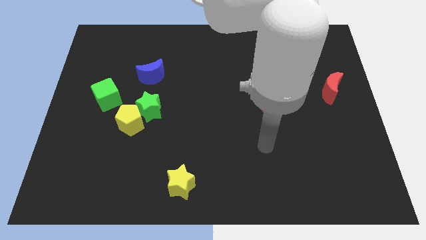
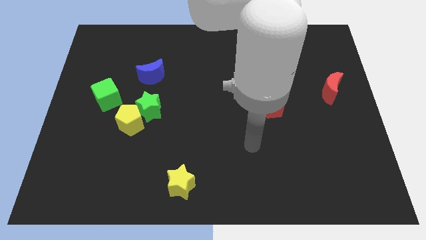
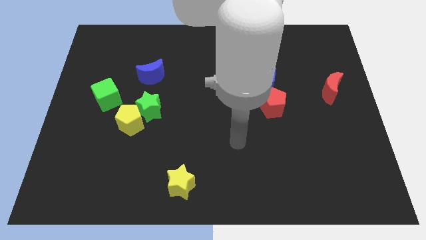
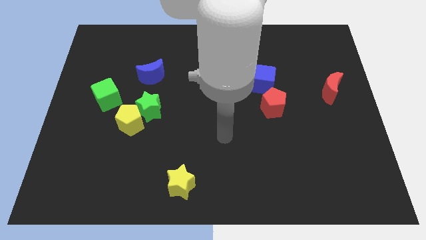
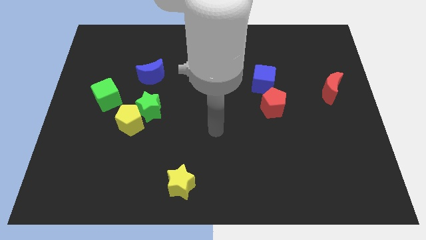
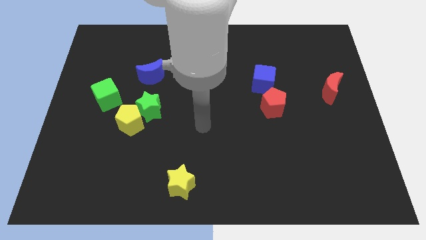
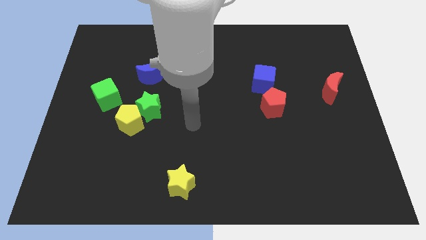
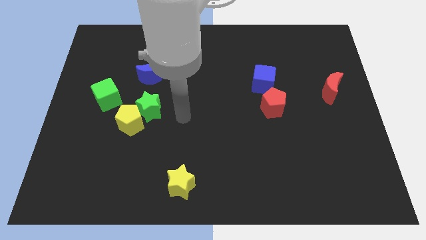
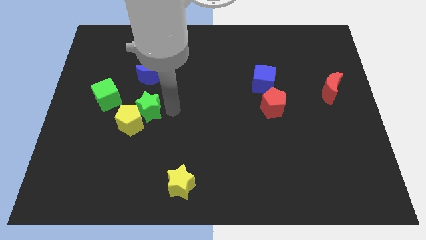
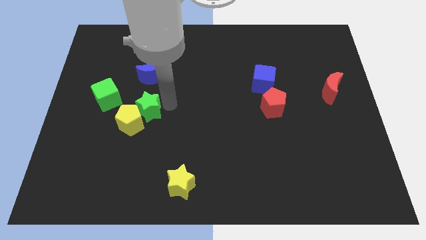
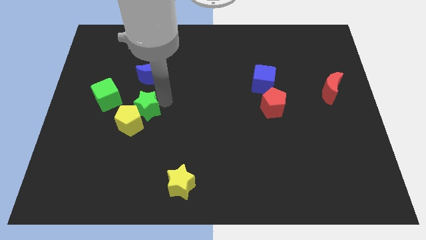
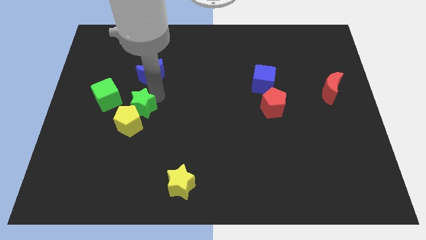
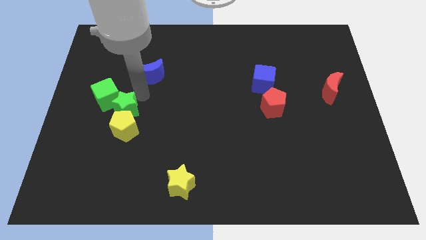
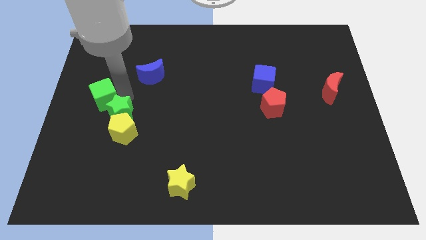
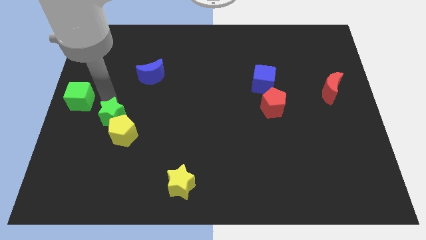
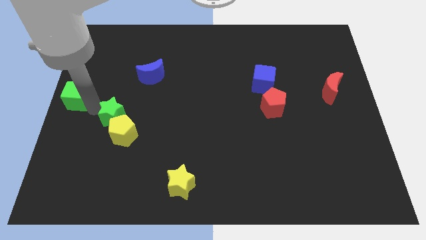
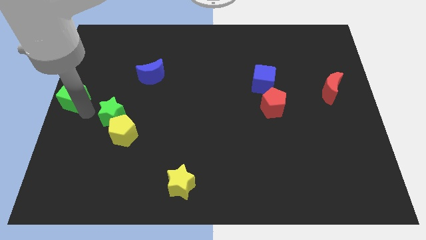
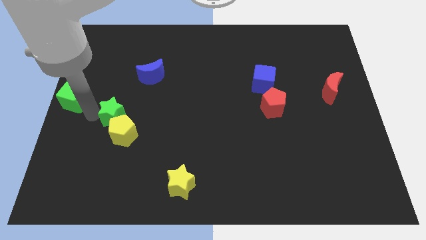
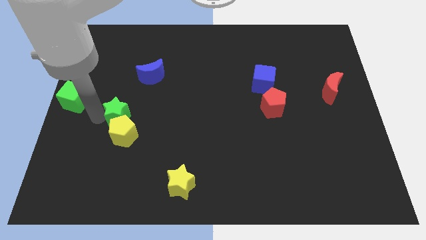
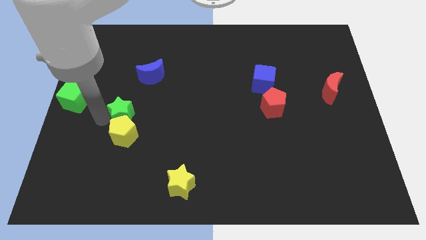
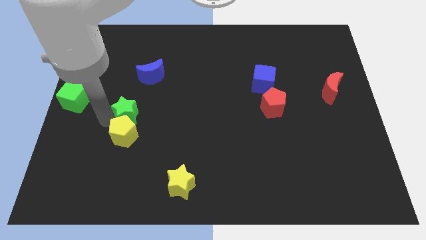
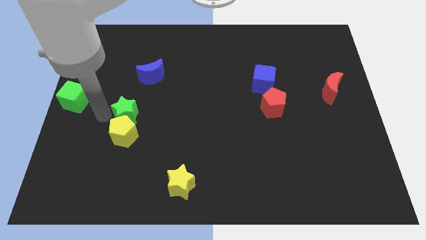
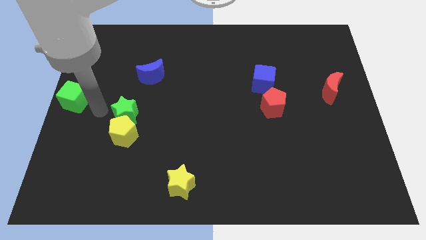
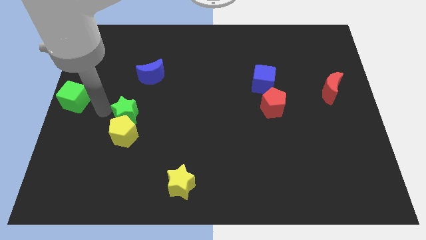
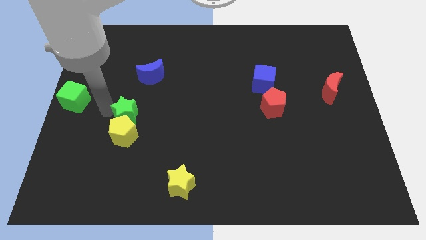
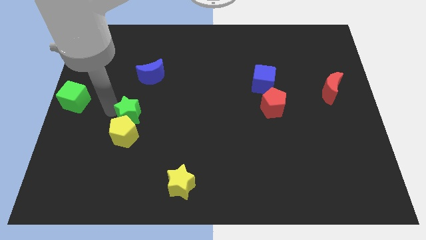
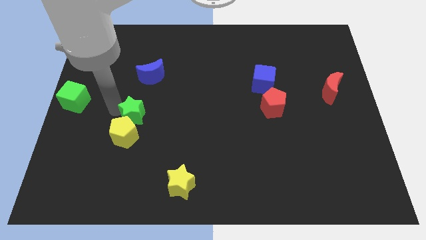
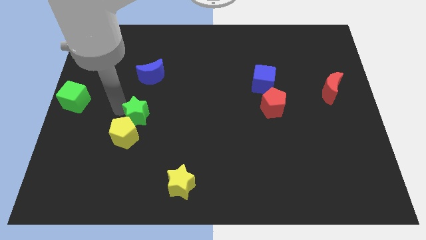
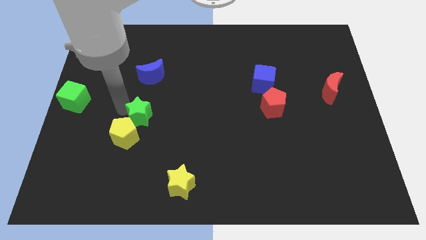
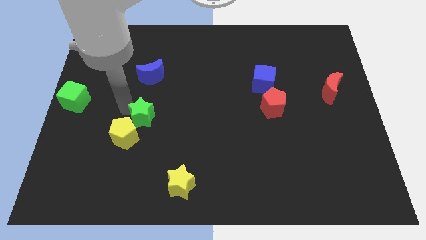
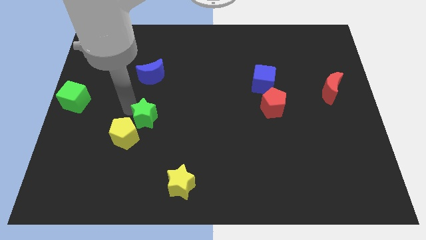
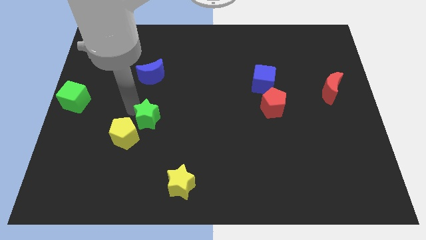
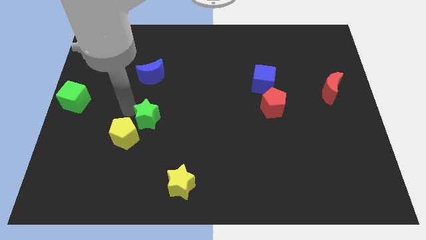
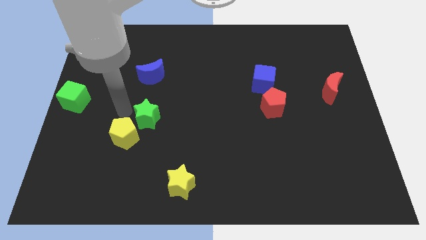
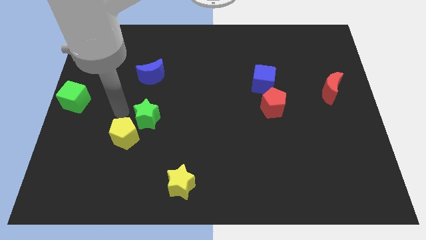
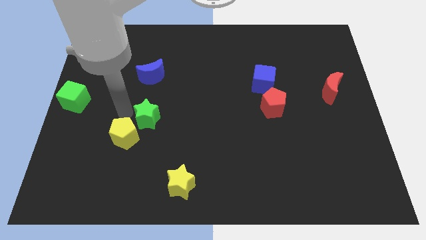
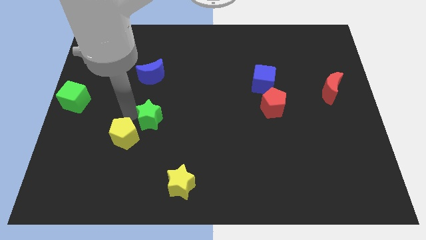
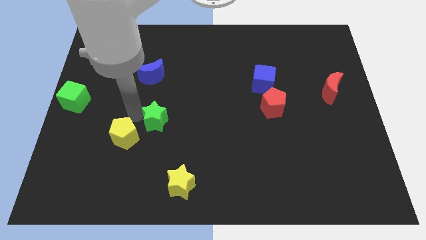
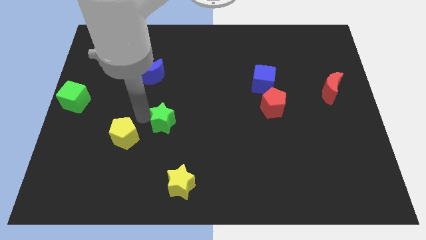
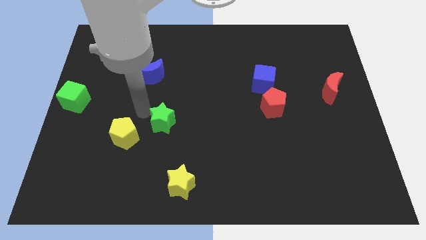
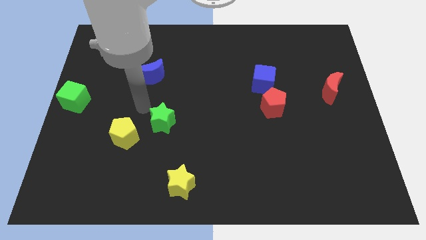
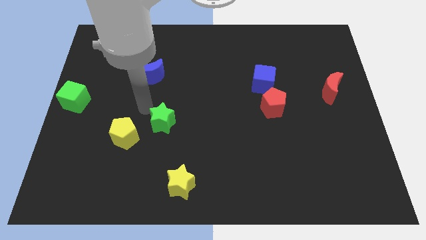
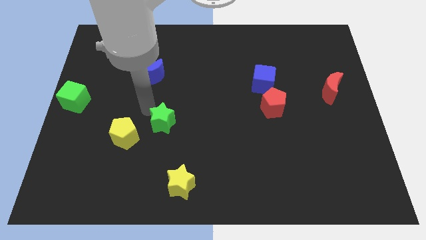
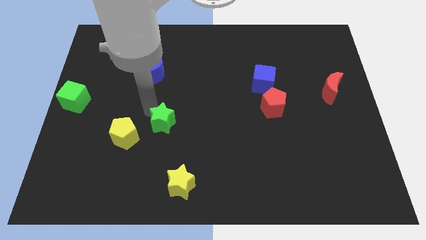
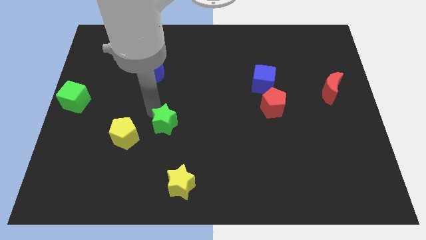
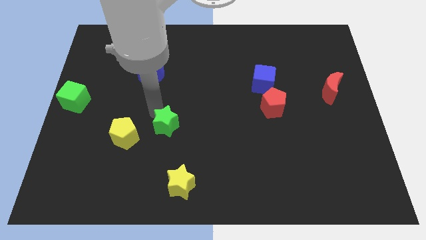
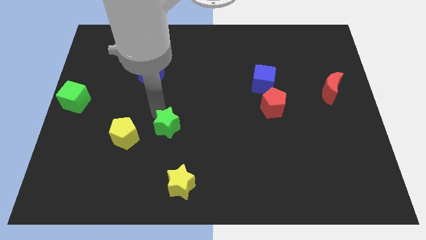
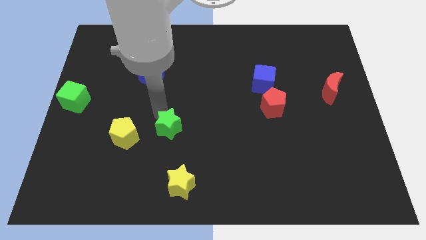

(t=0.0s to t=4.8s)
push the green star a bit downwards and to the right diagonally

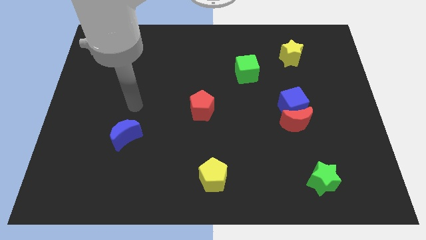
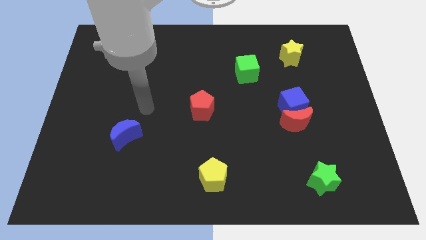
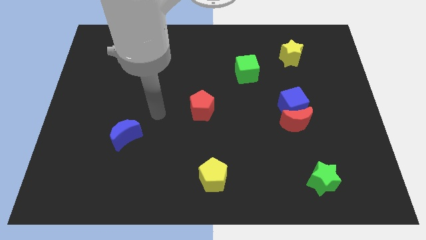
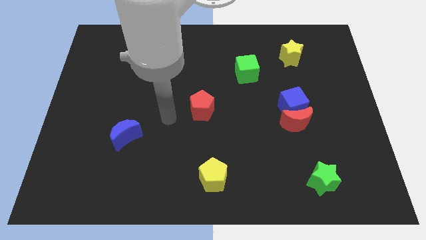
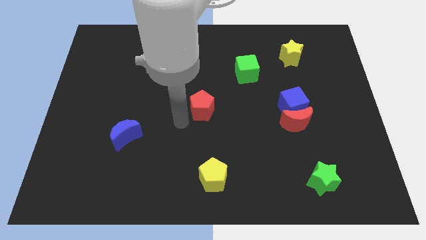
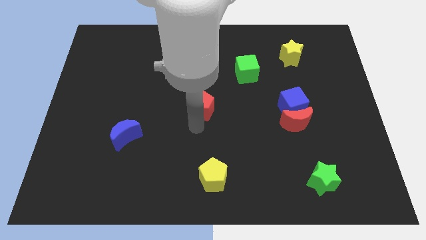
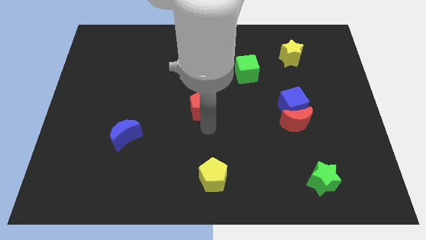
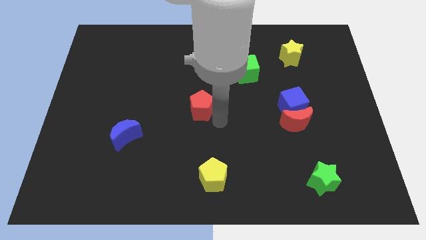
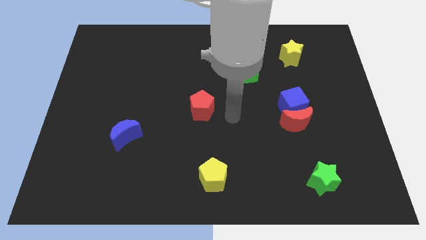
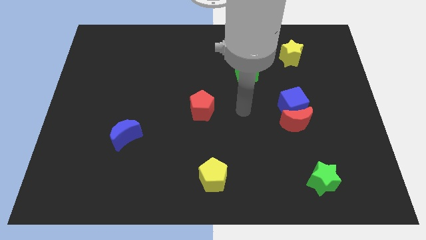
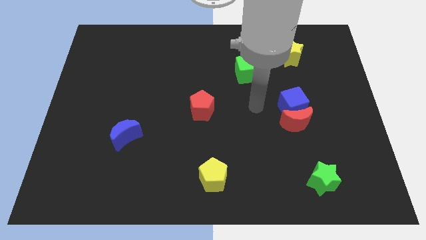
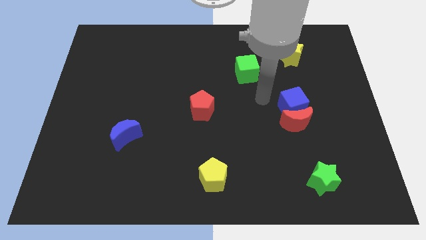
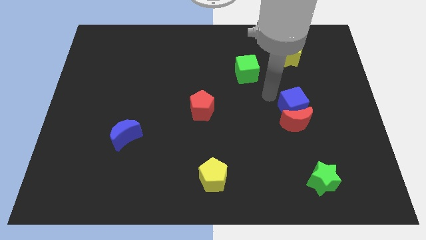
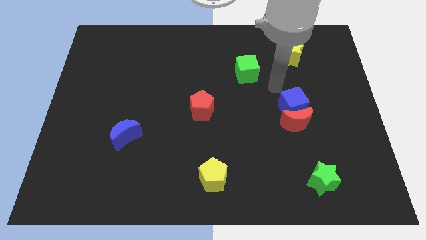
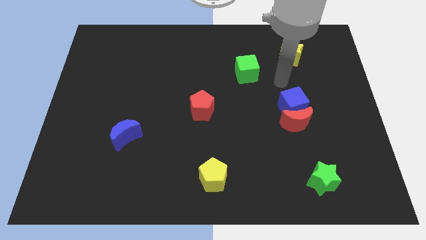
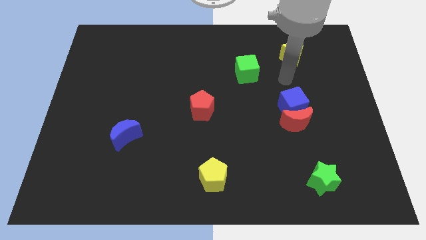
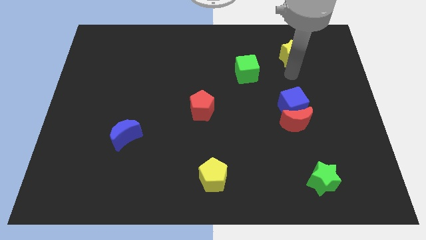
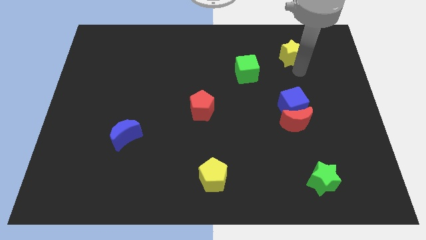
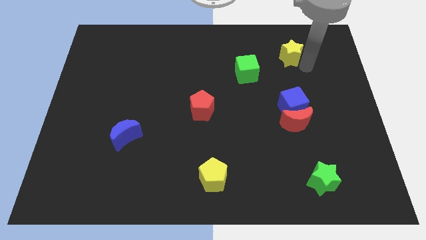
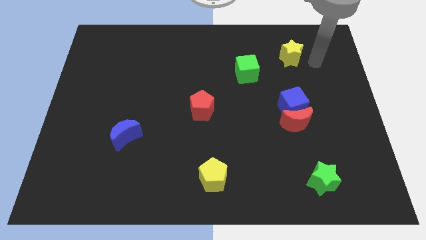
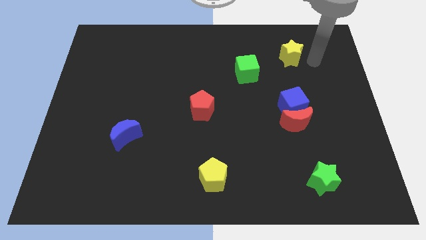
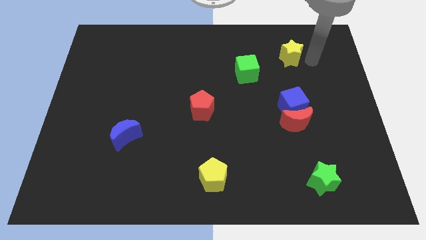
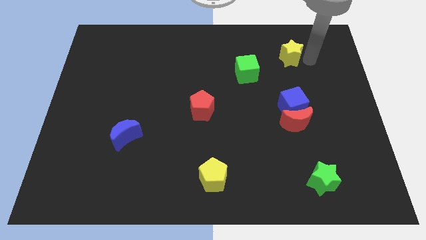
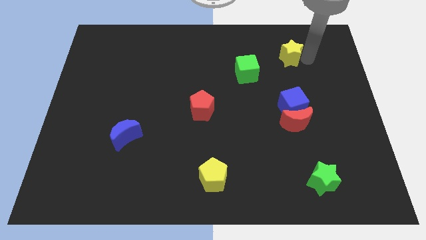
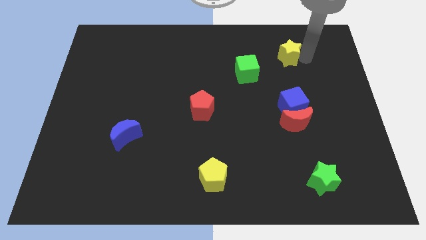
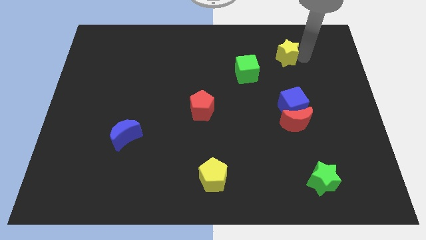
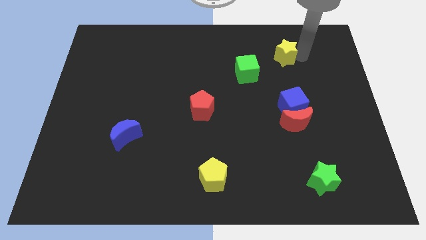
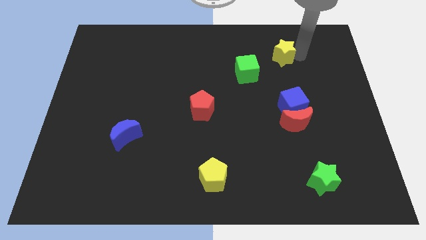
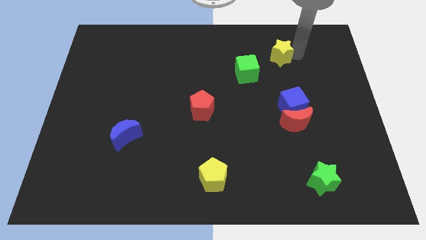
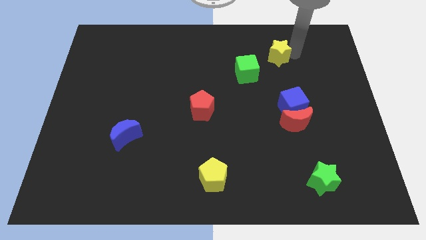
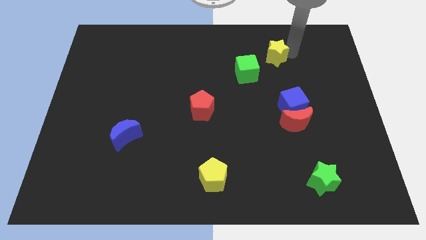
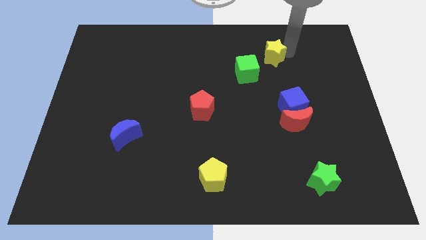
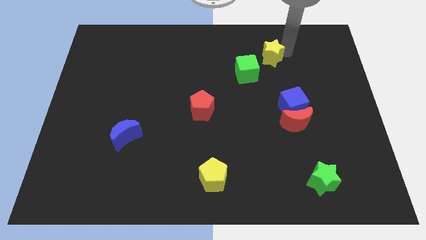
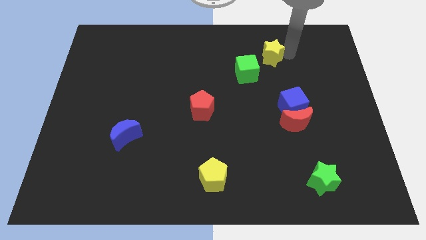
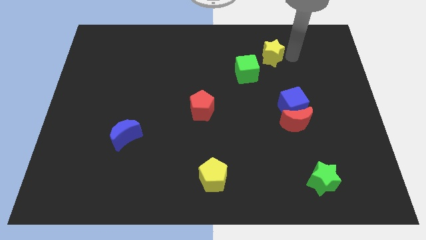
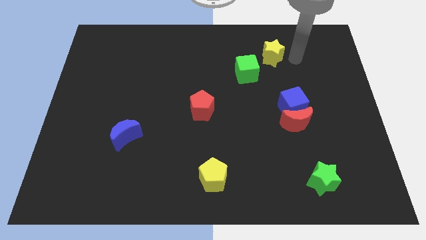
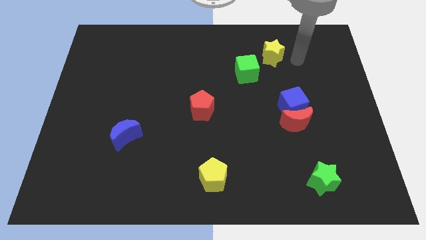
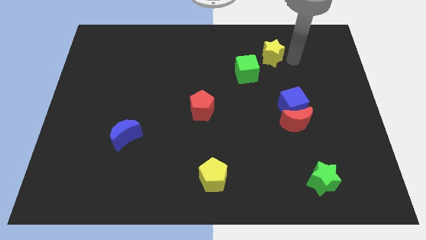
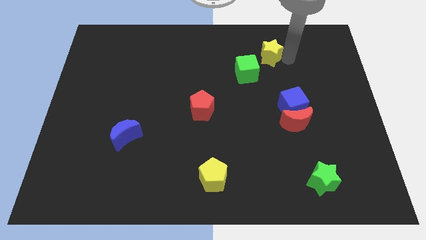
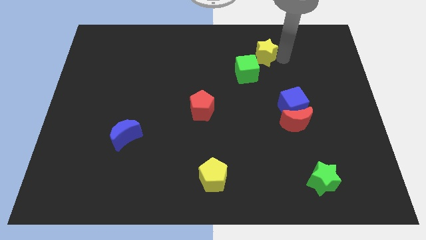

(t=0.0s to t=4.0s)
slide the yellow star a little bit to the left
